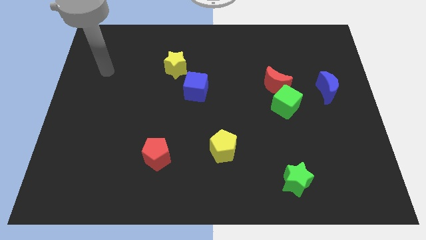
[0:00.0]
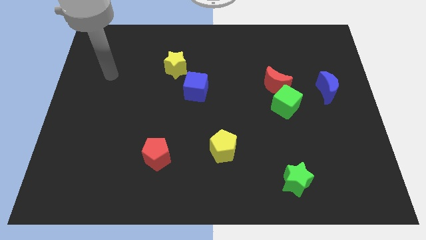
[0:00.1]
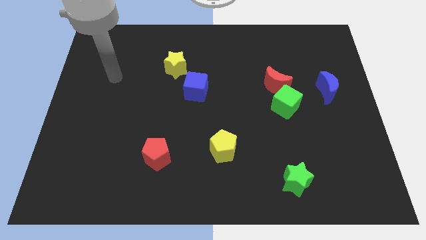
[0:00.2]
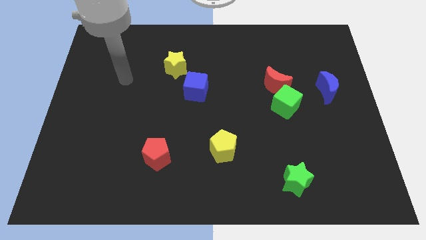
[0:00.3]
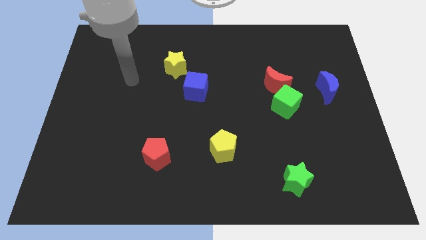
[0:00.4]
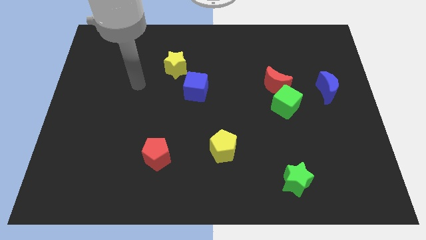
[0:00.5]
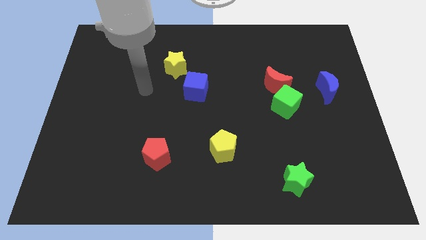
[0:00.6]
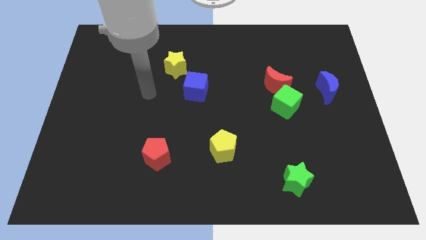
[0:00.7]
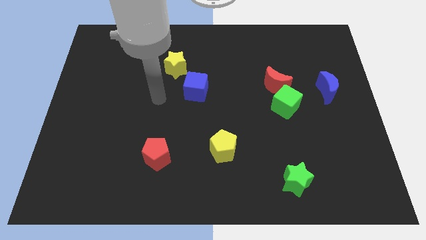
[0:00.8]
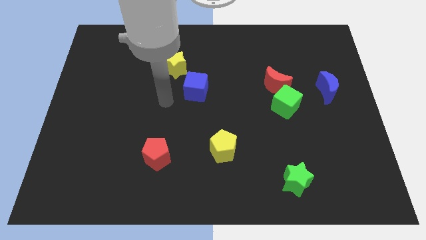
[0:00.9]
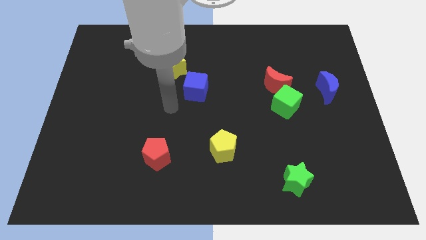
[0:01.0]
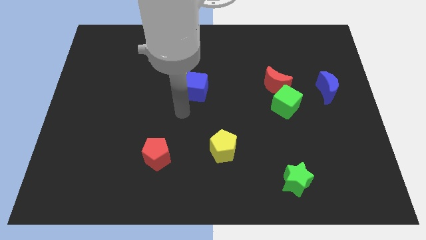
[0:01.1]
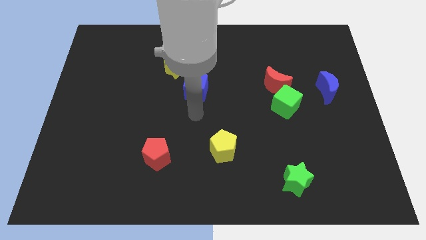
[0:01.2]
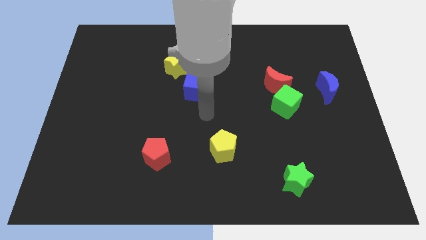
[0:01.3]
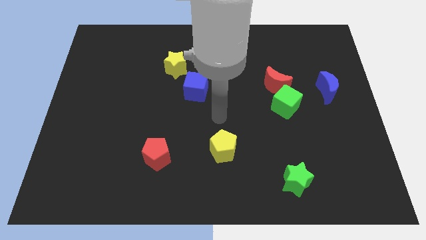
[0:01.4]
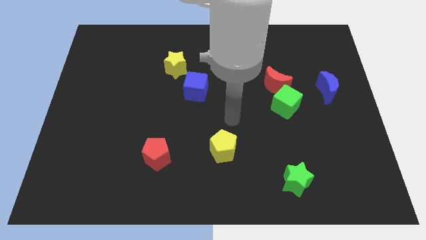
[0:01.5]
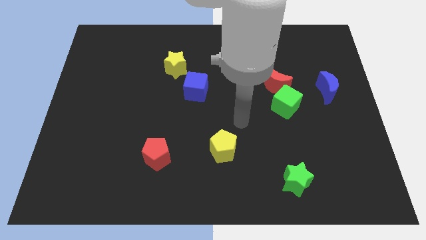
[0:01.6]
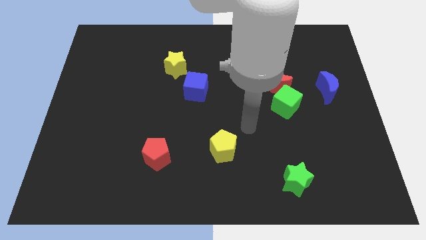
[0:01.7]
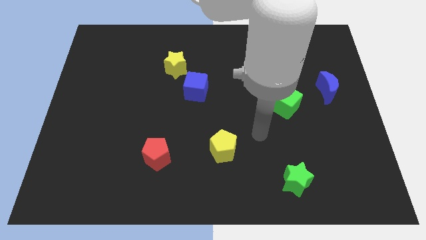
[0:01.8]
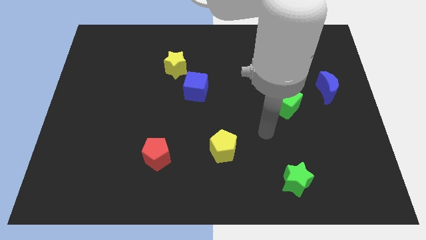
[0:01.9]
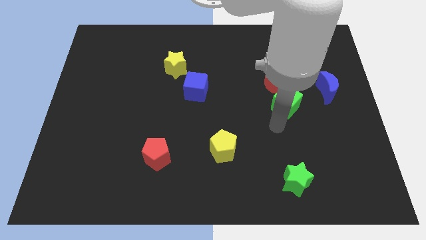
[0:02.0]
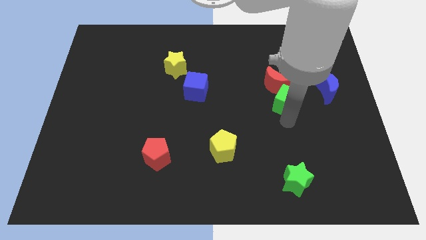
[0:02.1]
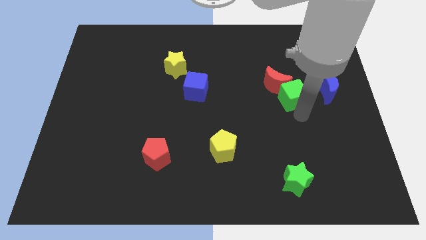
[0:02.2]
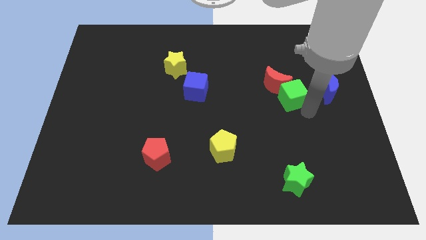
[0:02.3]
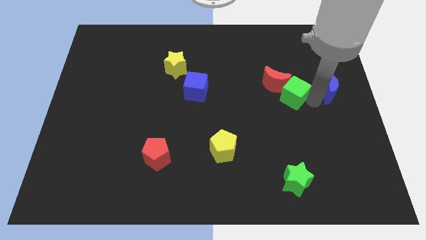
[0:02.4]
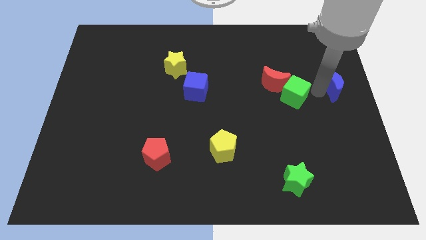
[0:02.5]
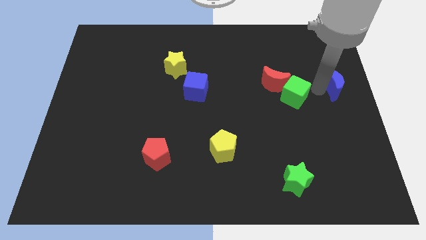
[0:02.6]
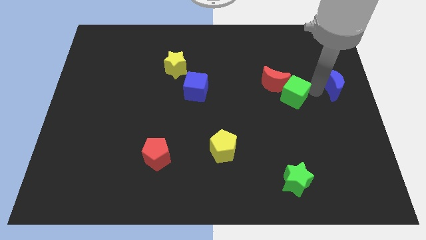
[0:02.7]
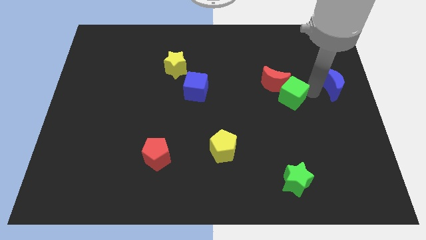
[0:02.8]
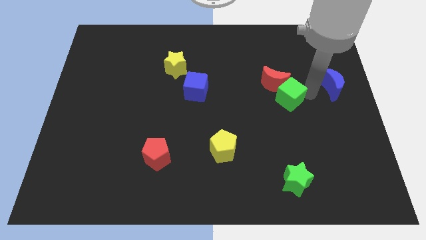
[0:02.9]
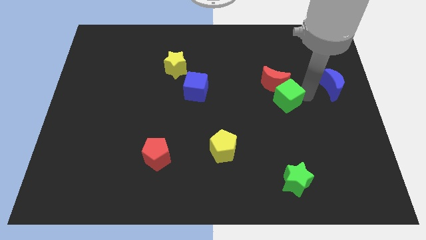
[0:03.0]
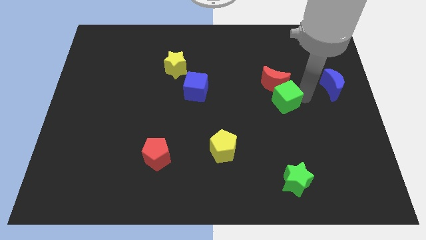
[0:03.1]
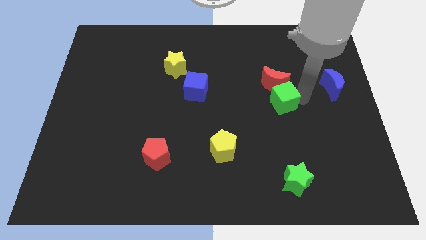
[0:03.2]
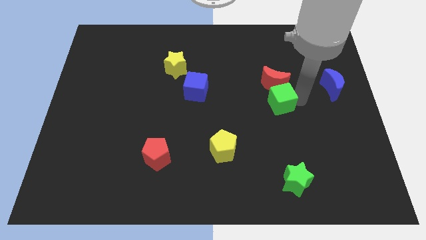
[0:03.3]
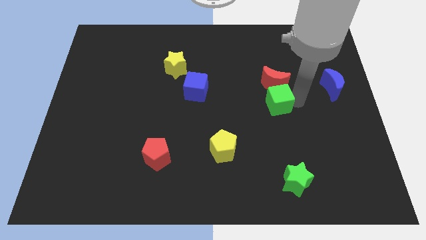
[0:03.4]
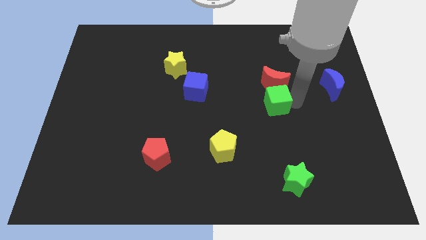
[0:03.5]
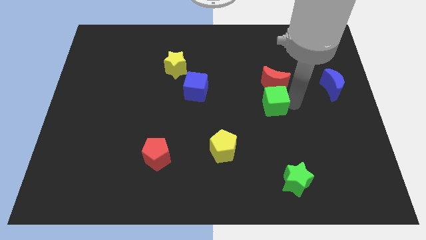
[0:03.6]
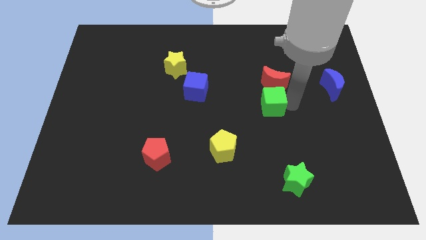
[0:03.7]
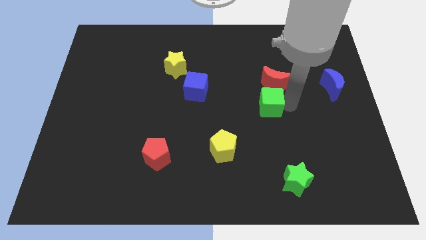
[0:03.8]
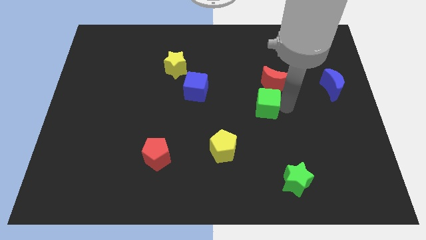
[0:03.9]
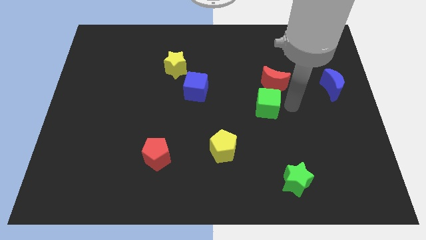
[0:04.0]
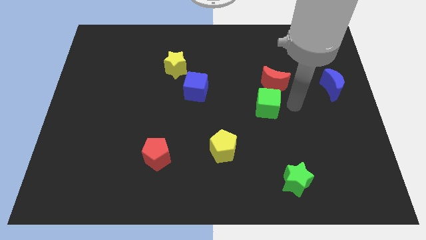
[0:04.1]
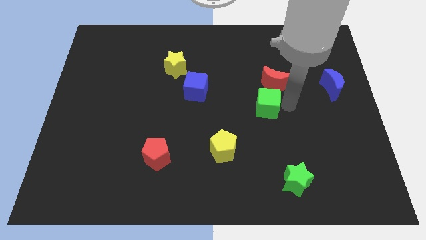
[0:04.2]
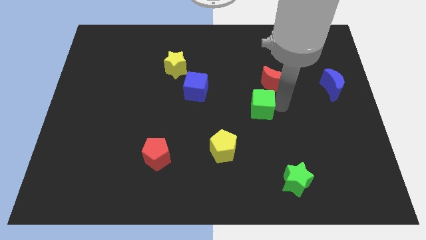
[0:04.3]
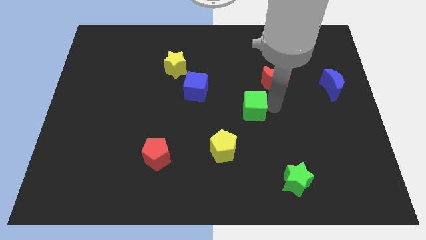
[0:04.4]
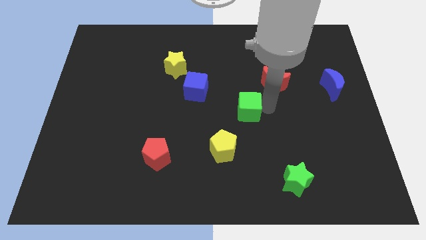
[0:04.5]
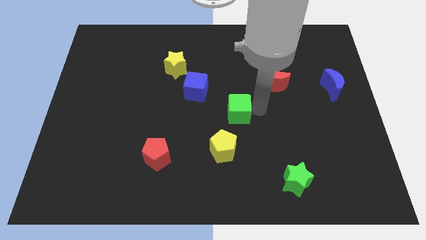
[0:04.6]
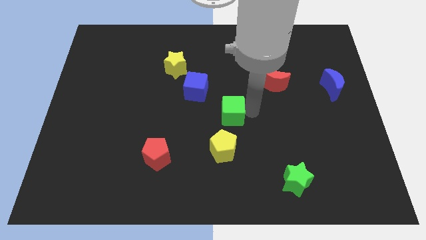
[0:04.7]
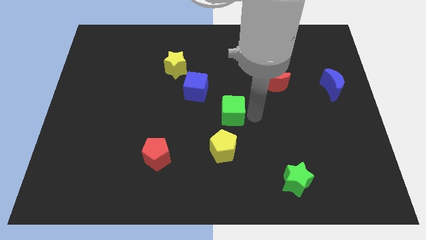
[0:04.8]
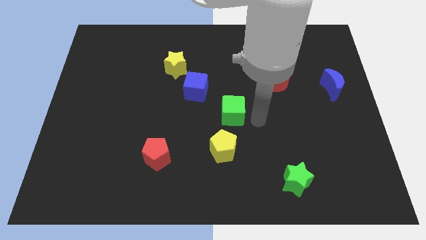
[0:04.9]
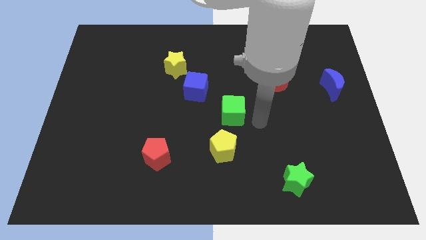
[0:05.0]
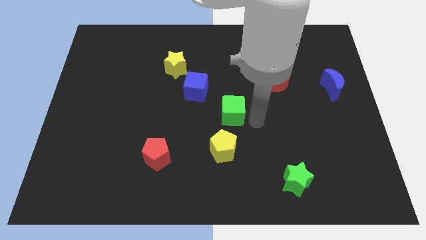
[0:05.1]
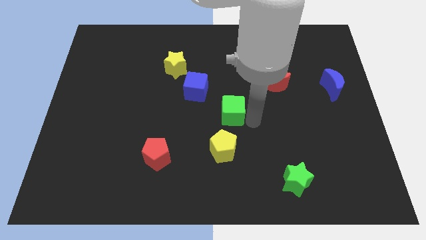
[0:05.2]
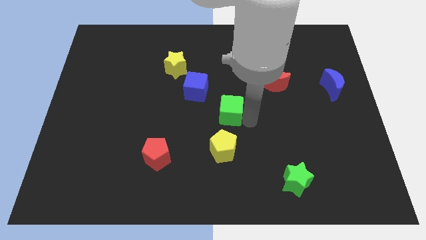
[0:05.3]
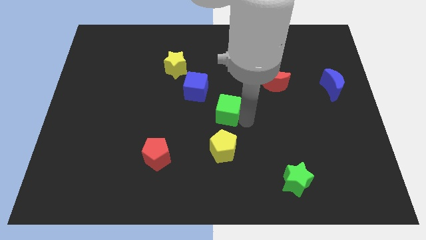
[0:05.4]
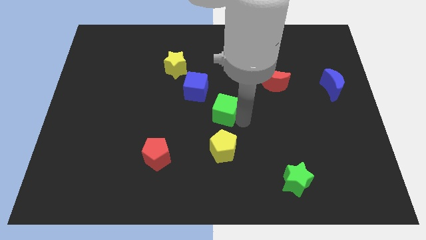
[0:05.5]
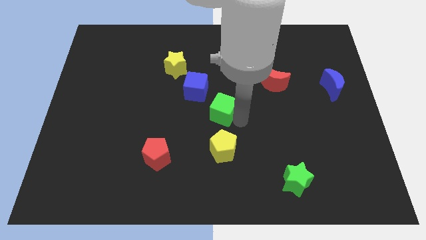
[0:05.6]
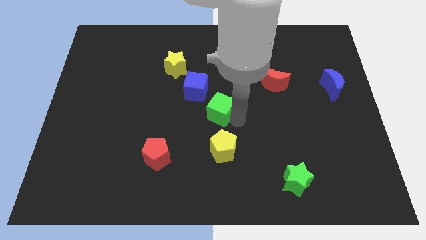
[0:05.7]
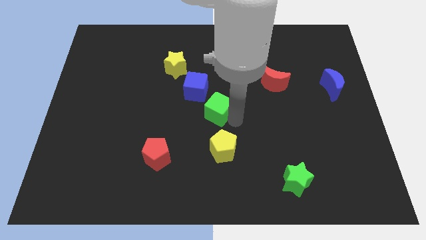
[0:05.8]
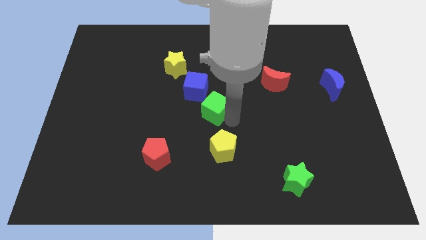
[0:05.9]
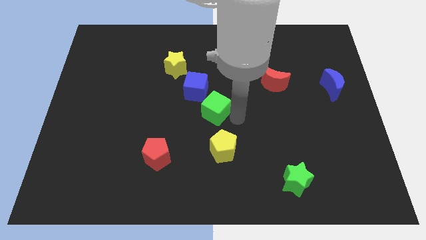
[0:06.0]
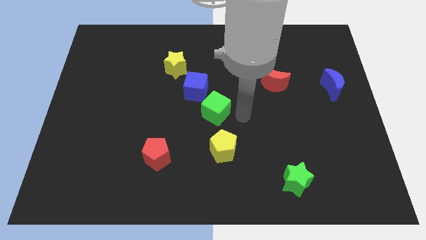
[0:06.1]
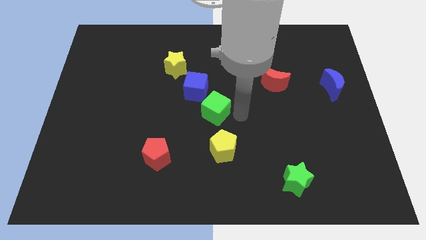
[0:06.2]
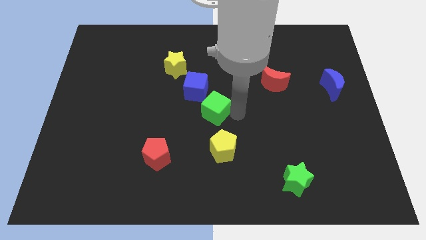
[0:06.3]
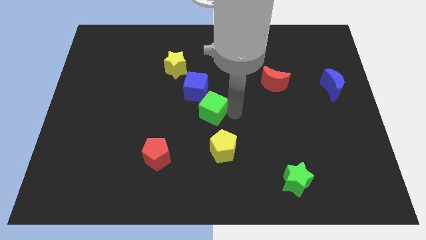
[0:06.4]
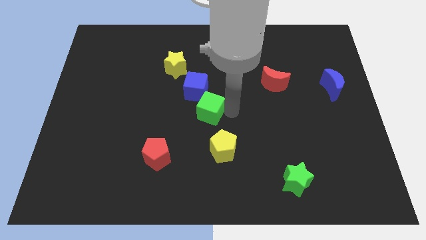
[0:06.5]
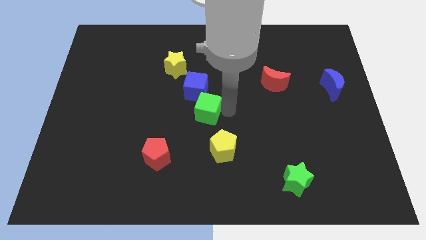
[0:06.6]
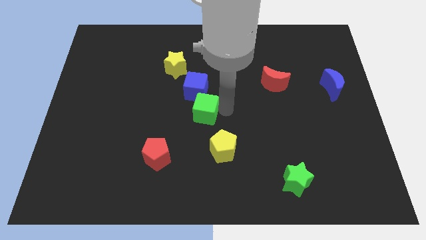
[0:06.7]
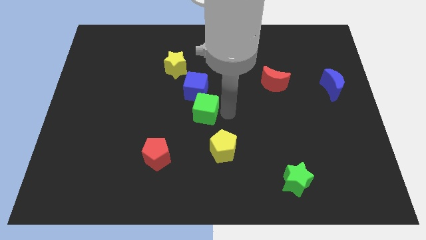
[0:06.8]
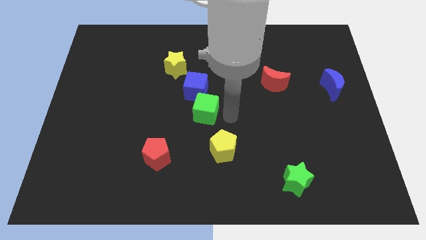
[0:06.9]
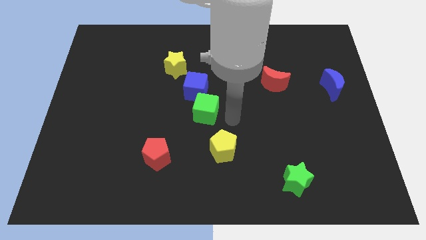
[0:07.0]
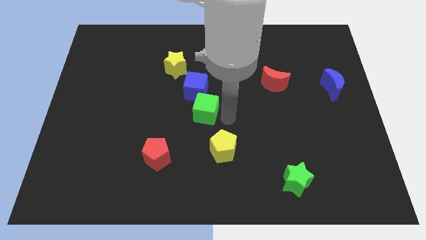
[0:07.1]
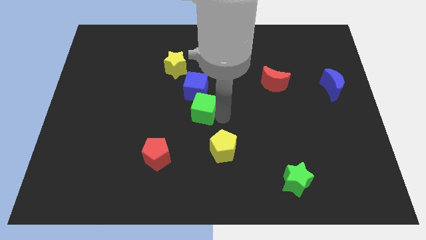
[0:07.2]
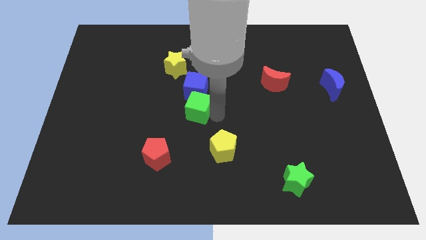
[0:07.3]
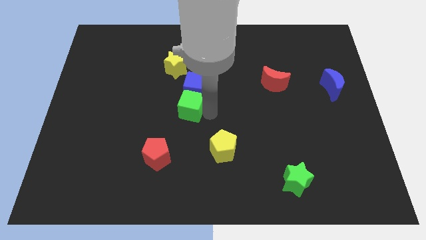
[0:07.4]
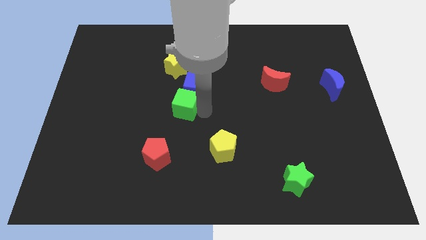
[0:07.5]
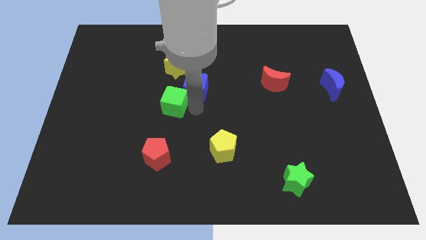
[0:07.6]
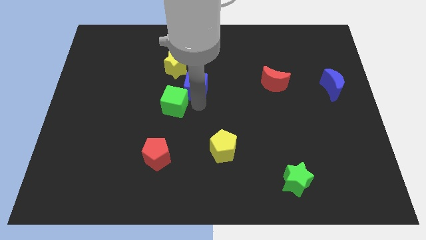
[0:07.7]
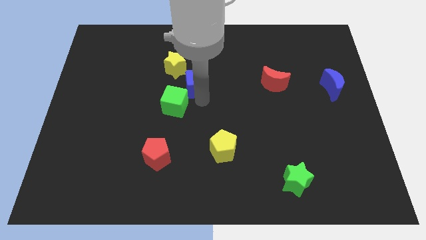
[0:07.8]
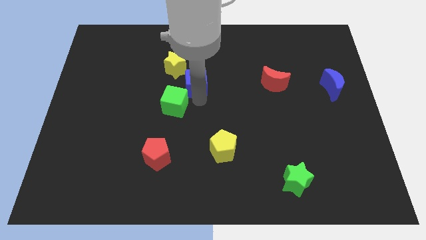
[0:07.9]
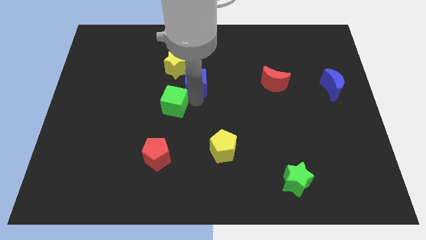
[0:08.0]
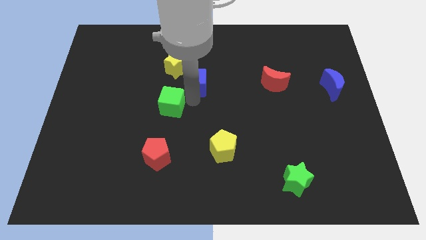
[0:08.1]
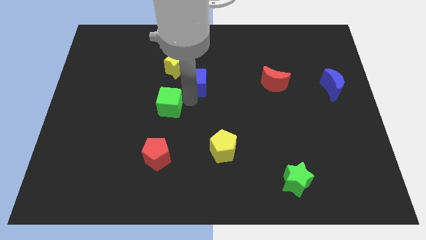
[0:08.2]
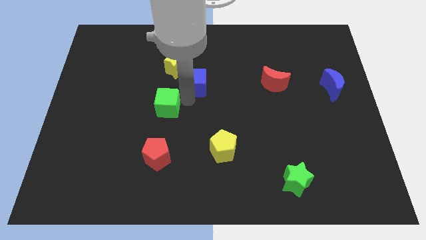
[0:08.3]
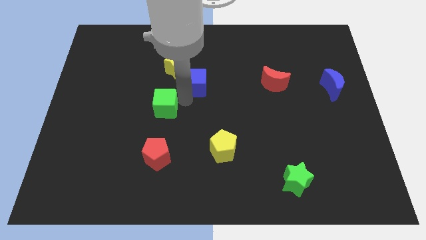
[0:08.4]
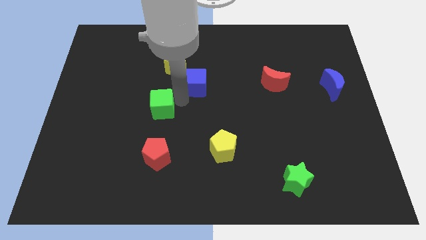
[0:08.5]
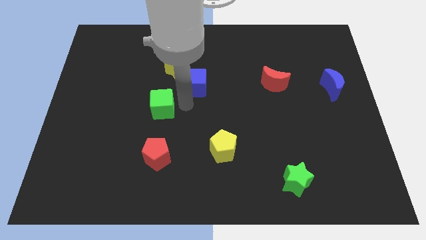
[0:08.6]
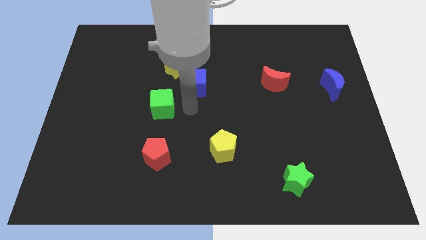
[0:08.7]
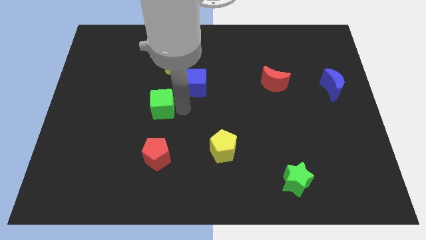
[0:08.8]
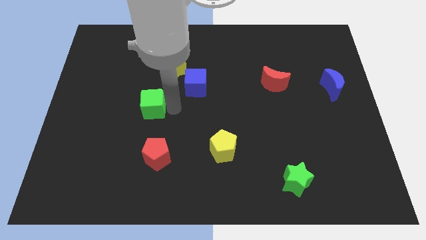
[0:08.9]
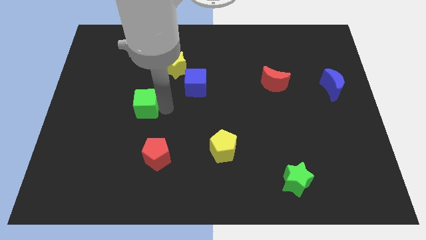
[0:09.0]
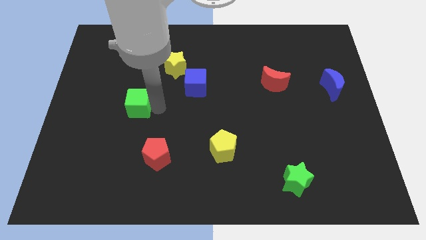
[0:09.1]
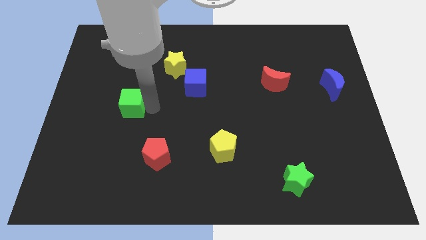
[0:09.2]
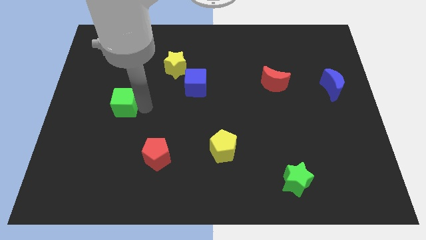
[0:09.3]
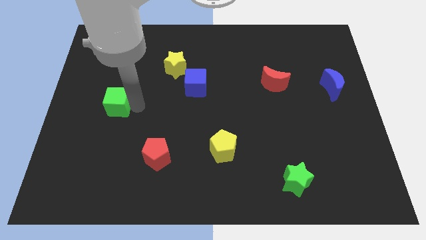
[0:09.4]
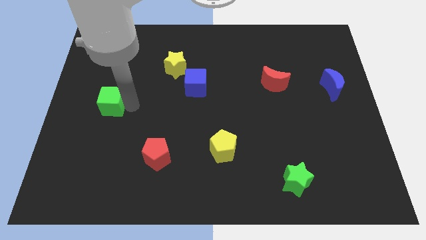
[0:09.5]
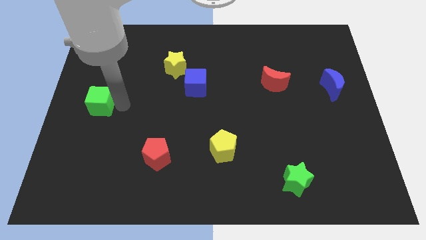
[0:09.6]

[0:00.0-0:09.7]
put the green cube to the left side
